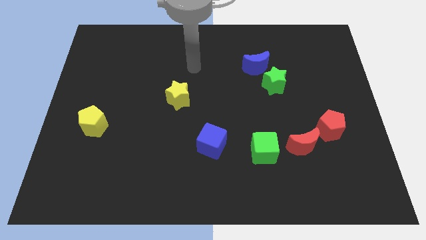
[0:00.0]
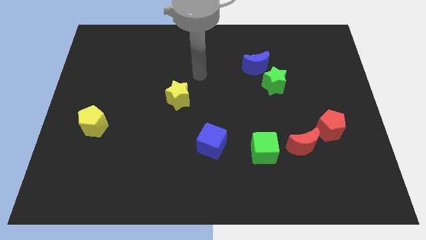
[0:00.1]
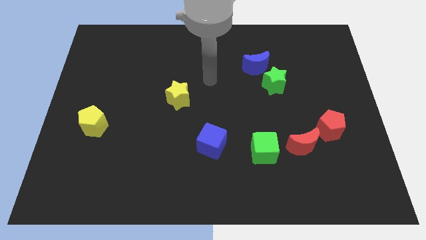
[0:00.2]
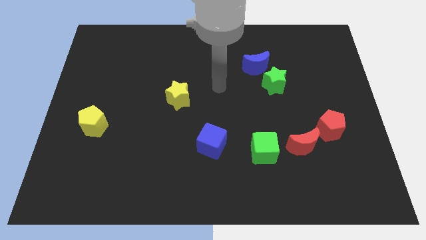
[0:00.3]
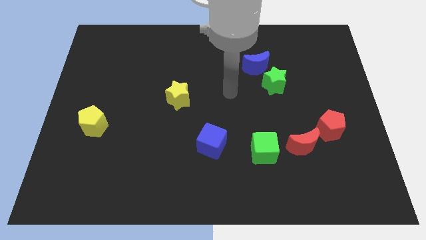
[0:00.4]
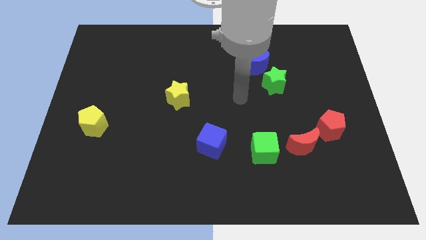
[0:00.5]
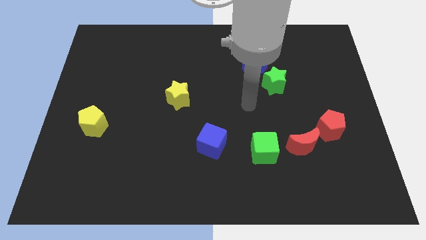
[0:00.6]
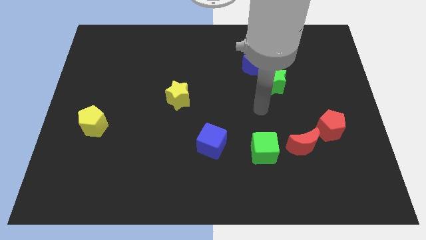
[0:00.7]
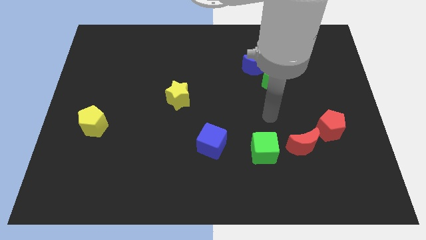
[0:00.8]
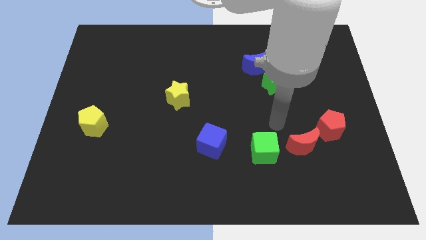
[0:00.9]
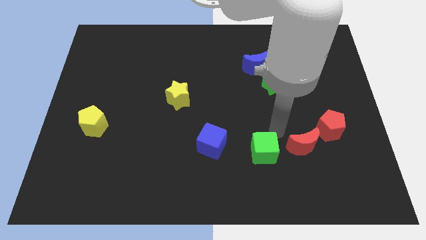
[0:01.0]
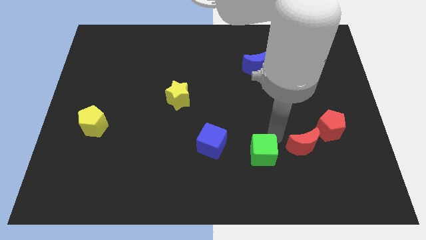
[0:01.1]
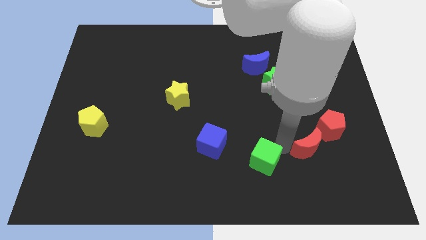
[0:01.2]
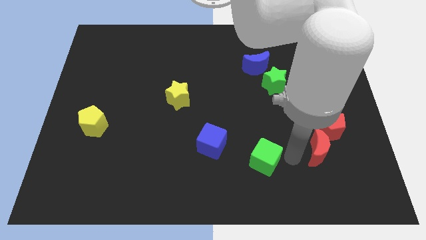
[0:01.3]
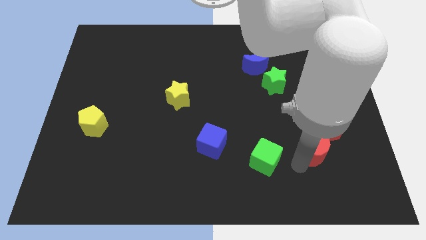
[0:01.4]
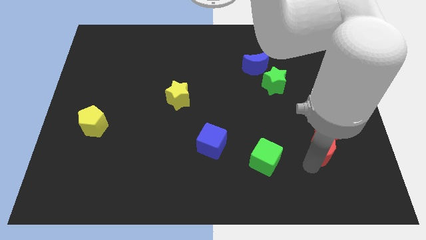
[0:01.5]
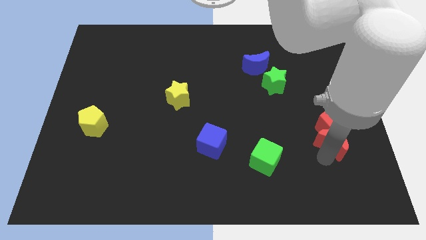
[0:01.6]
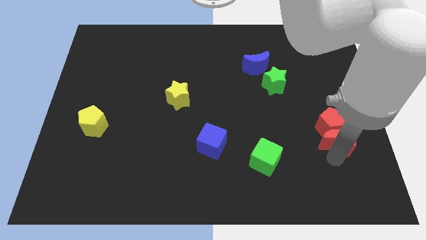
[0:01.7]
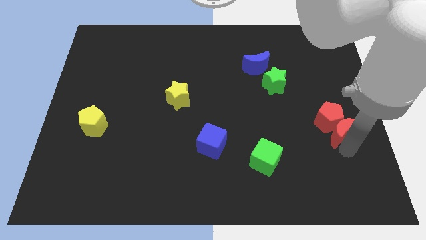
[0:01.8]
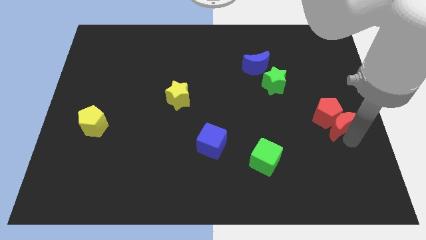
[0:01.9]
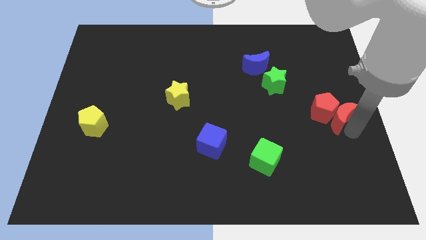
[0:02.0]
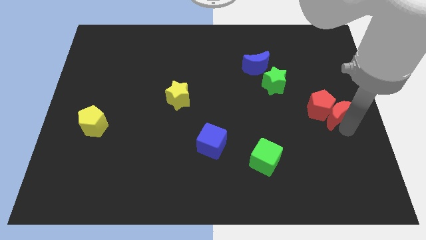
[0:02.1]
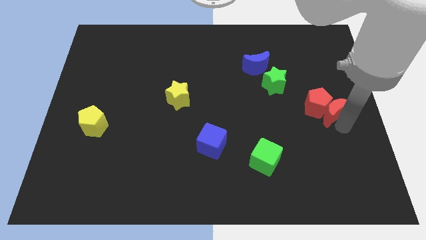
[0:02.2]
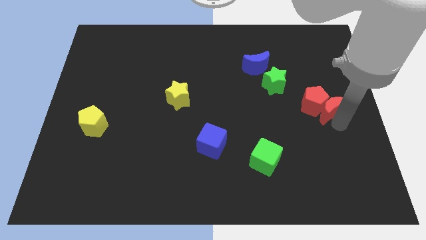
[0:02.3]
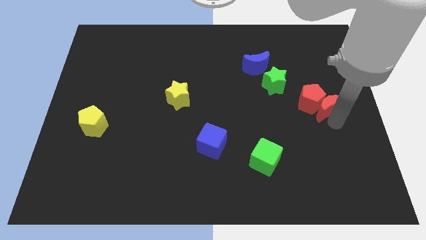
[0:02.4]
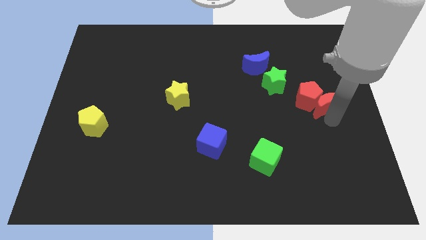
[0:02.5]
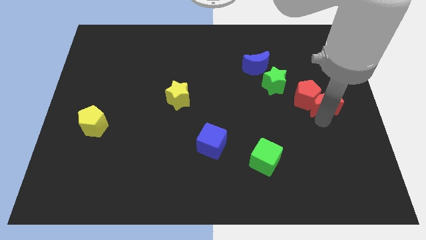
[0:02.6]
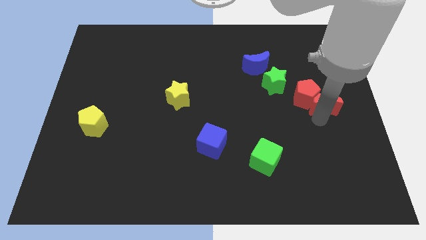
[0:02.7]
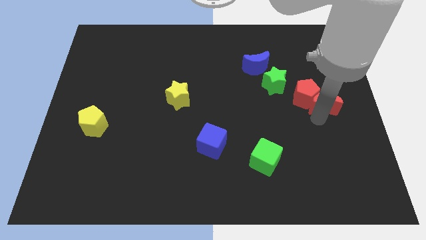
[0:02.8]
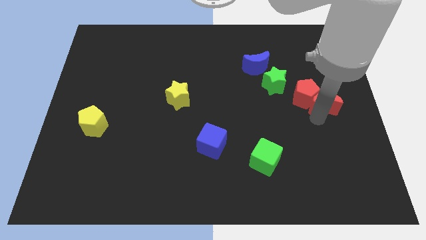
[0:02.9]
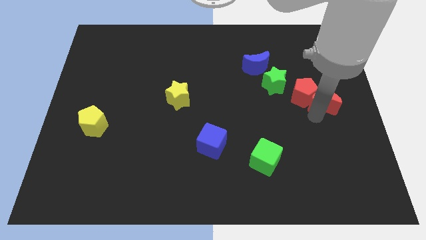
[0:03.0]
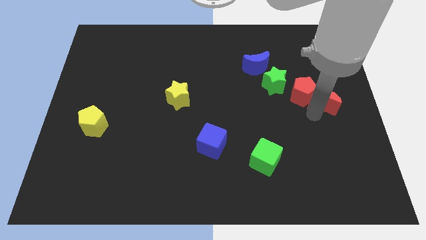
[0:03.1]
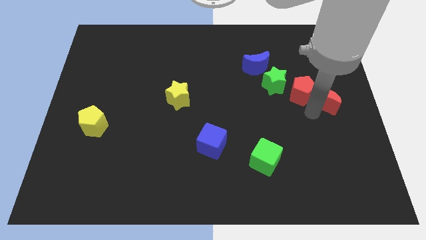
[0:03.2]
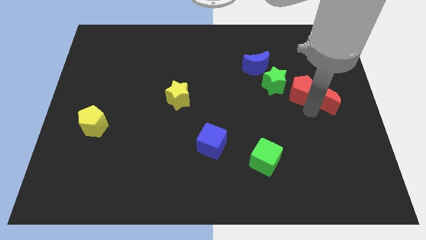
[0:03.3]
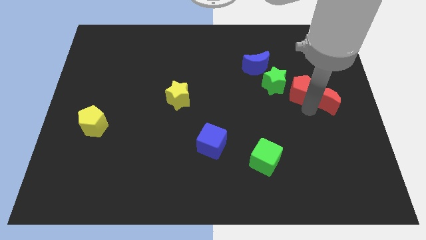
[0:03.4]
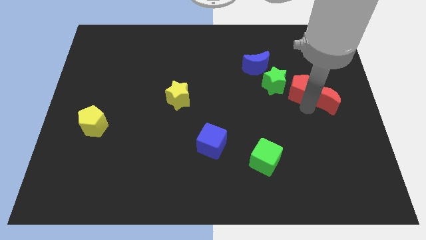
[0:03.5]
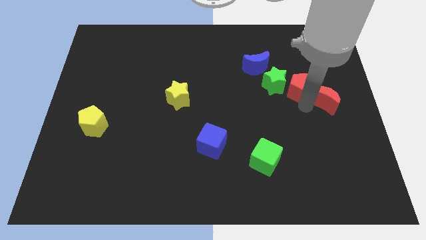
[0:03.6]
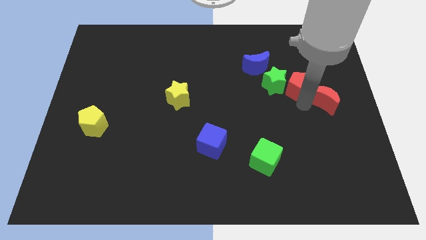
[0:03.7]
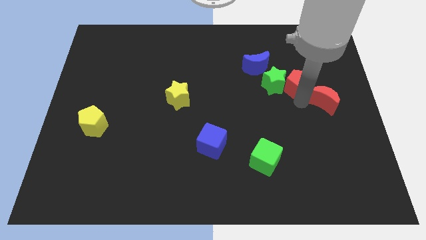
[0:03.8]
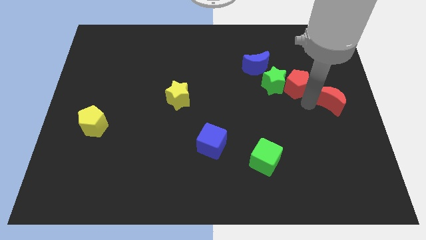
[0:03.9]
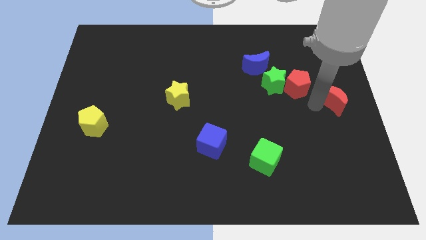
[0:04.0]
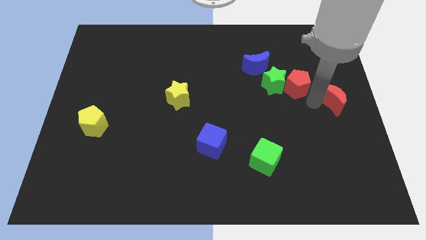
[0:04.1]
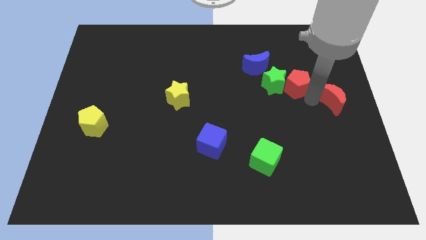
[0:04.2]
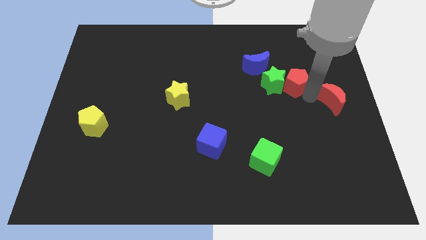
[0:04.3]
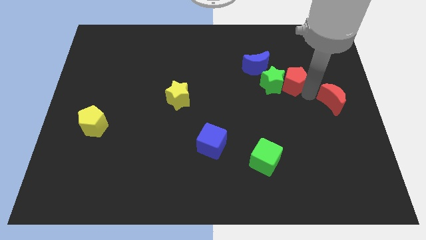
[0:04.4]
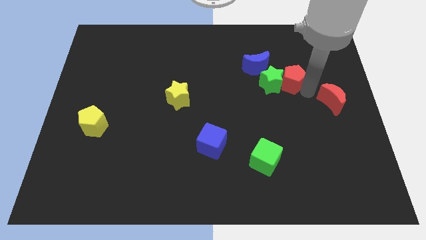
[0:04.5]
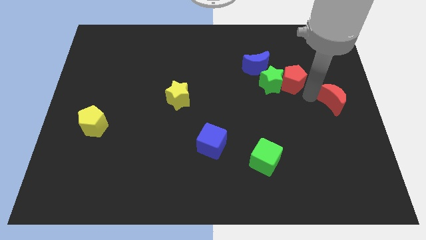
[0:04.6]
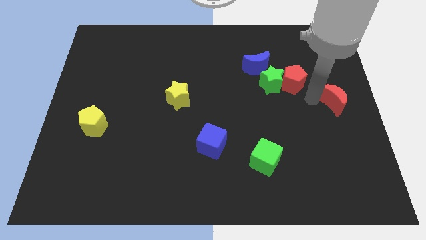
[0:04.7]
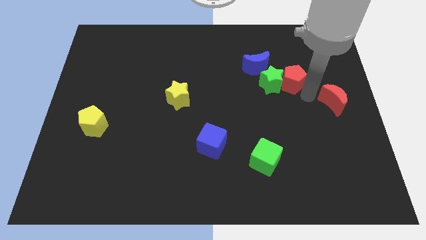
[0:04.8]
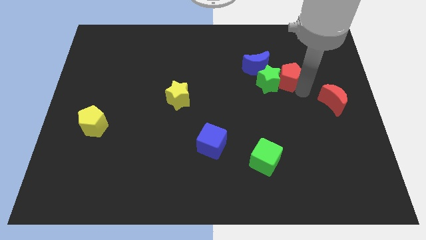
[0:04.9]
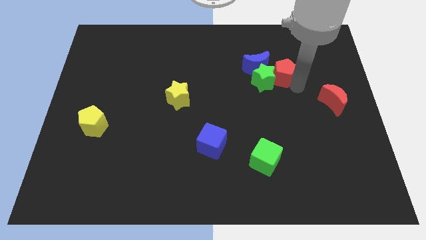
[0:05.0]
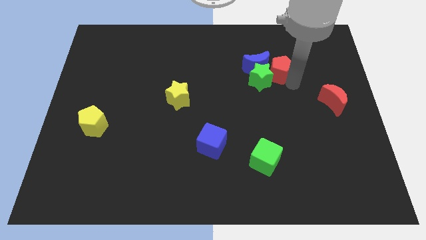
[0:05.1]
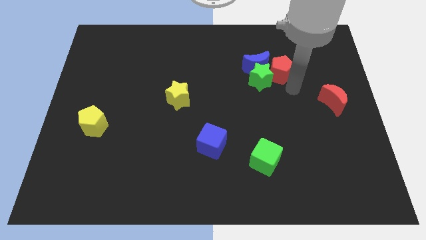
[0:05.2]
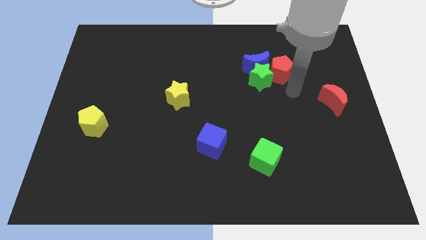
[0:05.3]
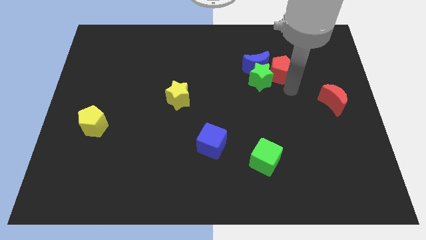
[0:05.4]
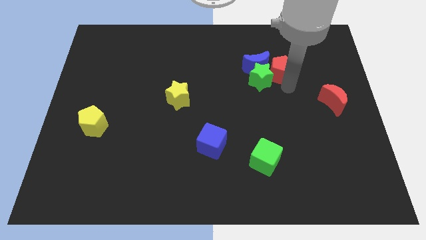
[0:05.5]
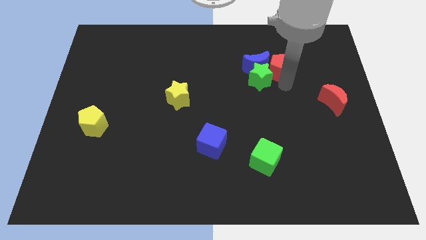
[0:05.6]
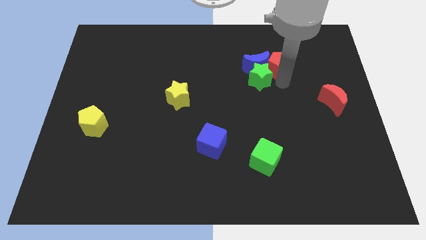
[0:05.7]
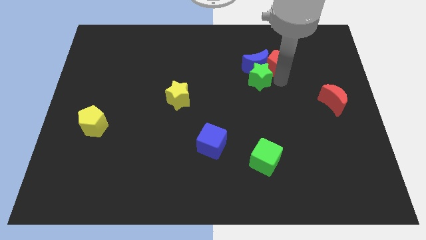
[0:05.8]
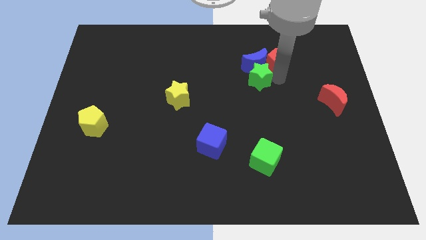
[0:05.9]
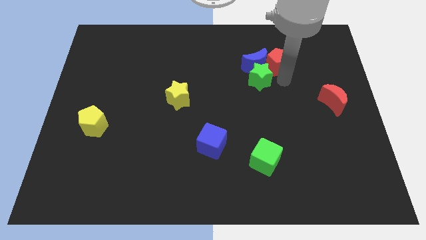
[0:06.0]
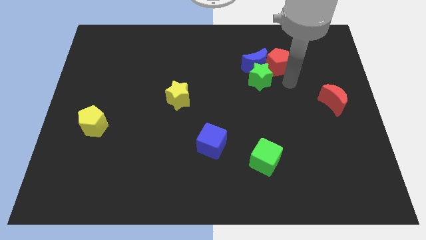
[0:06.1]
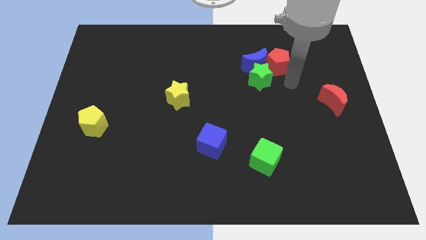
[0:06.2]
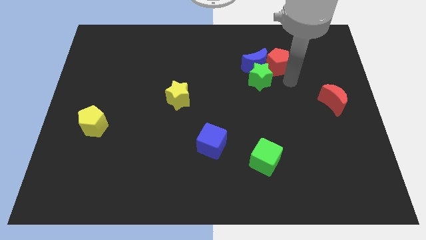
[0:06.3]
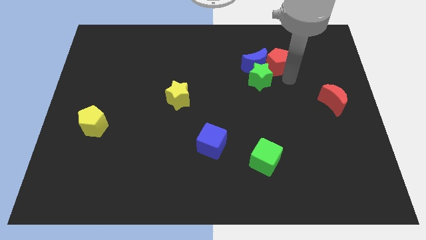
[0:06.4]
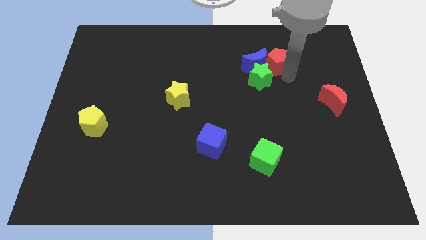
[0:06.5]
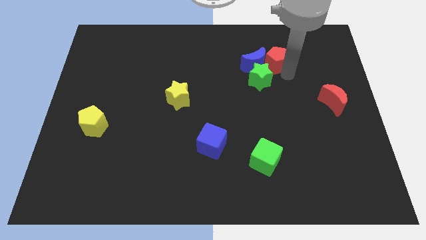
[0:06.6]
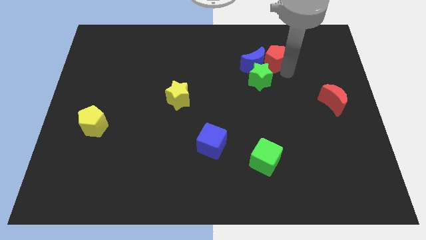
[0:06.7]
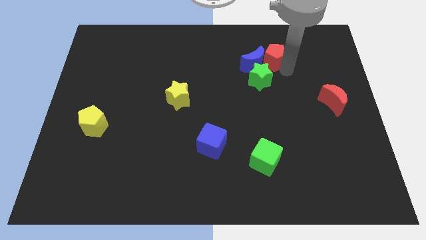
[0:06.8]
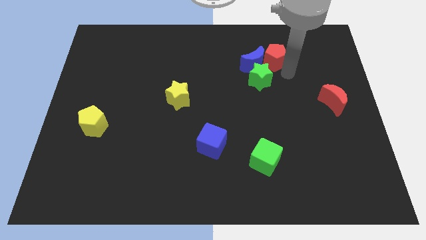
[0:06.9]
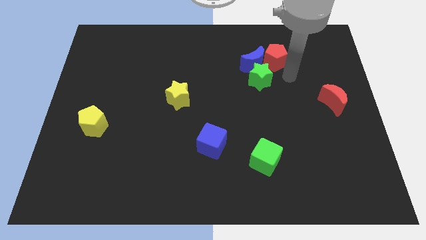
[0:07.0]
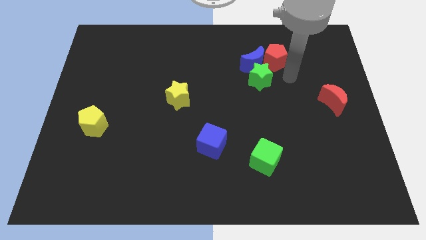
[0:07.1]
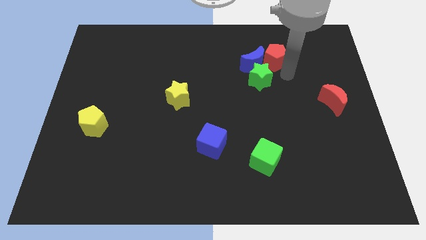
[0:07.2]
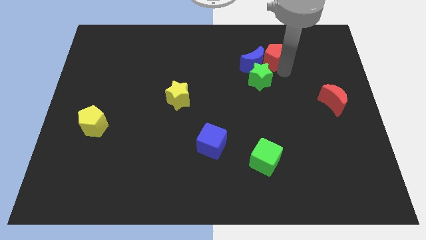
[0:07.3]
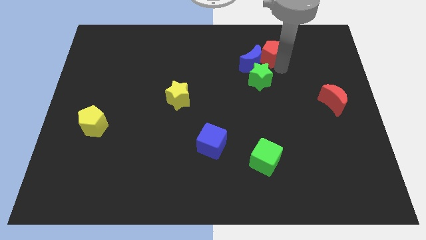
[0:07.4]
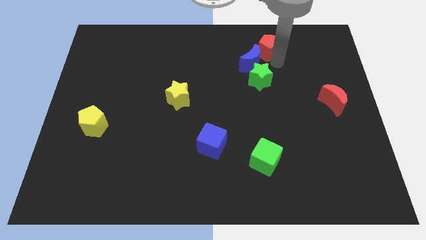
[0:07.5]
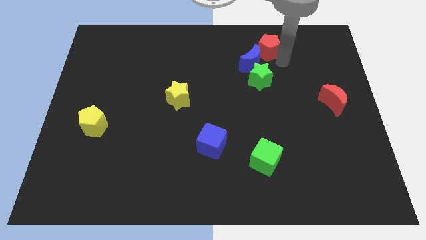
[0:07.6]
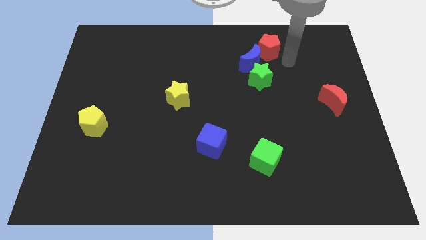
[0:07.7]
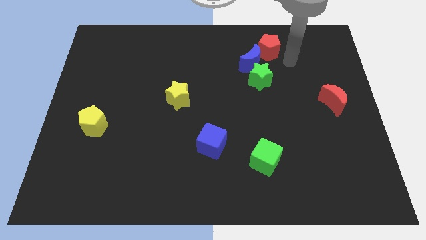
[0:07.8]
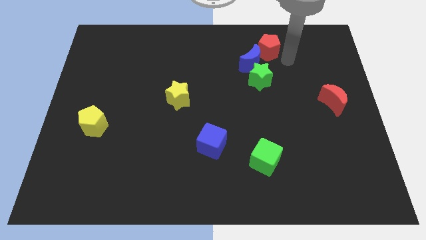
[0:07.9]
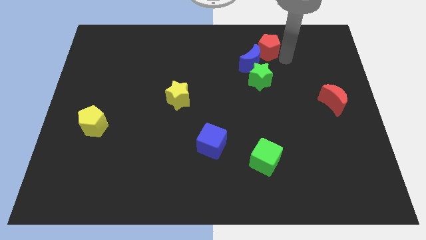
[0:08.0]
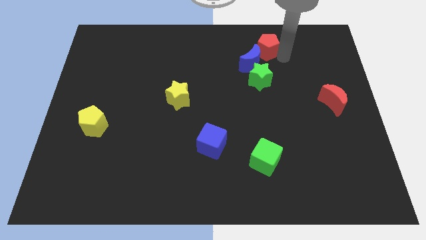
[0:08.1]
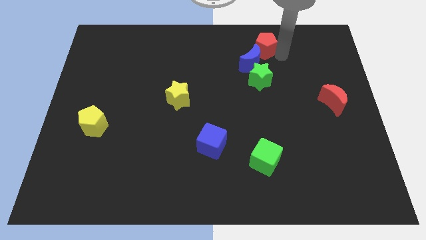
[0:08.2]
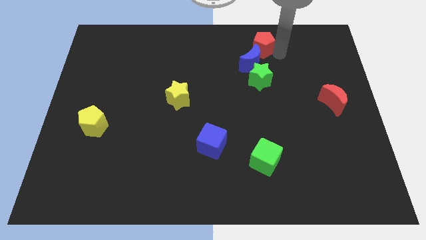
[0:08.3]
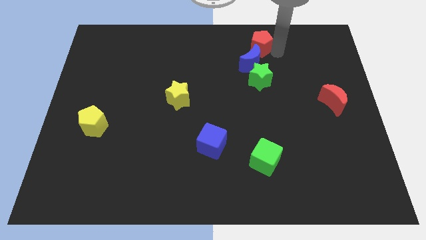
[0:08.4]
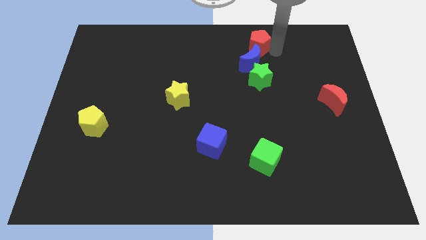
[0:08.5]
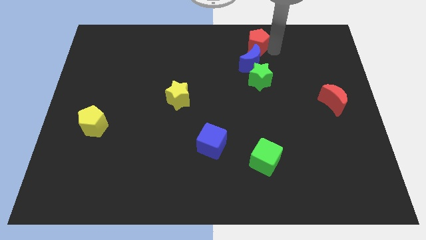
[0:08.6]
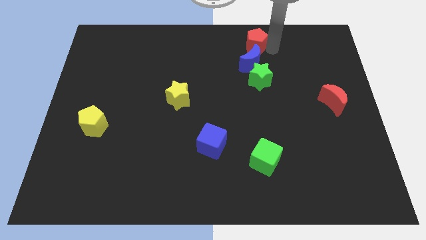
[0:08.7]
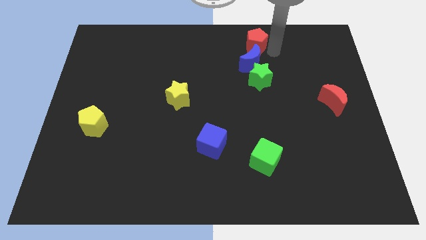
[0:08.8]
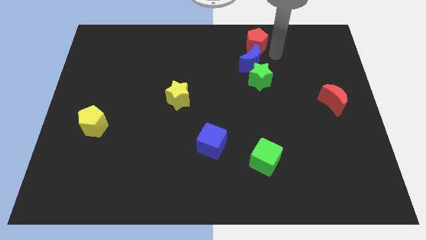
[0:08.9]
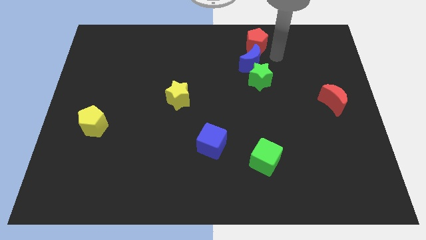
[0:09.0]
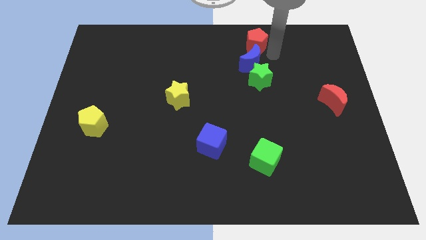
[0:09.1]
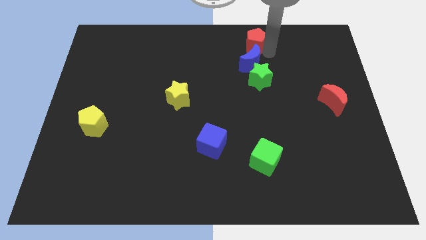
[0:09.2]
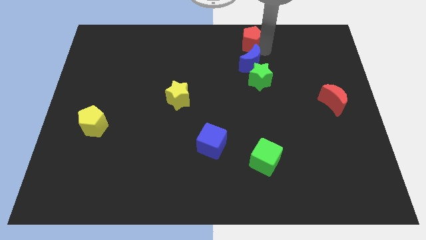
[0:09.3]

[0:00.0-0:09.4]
put the red pentagon to the top side
